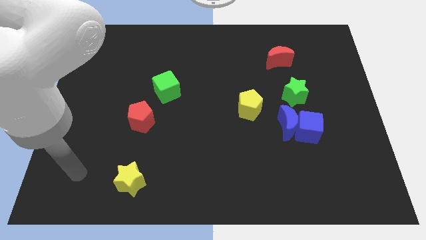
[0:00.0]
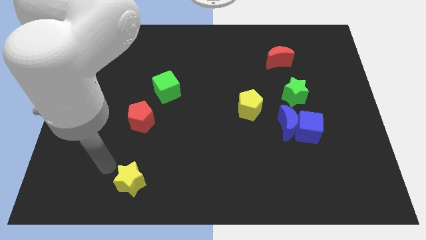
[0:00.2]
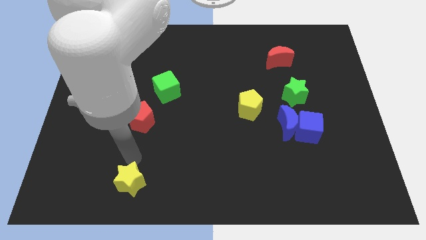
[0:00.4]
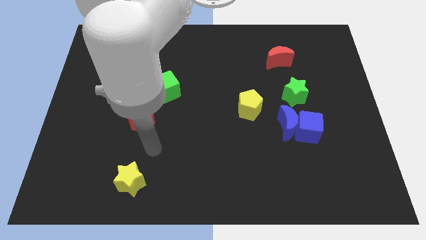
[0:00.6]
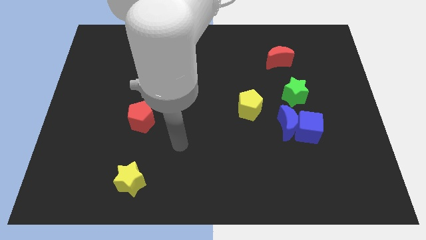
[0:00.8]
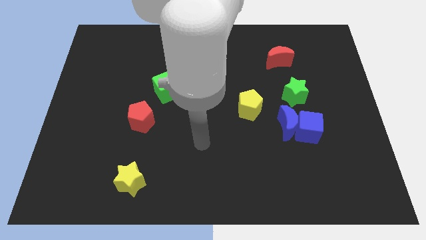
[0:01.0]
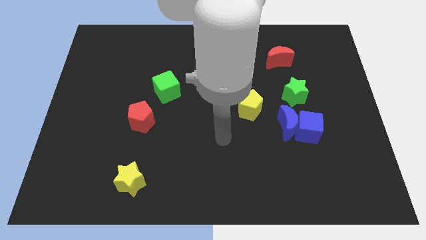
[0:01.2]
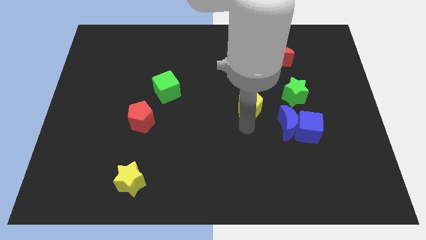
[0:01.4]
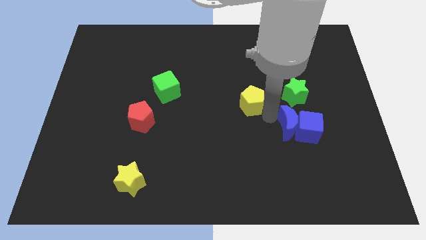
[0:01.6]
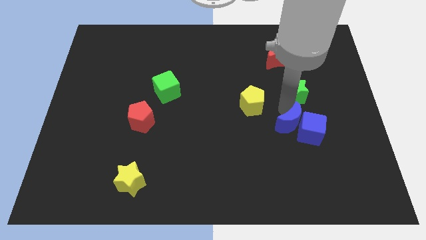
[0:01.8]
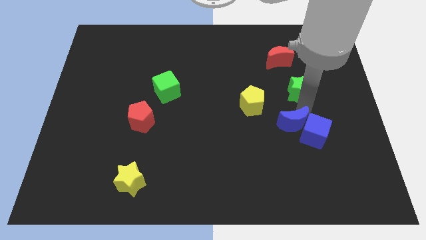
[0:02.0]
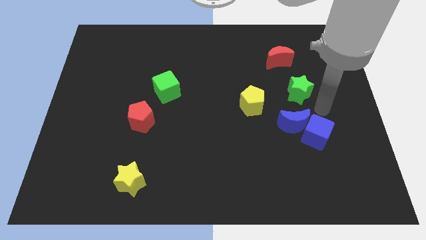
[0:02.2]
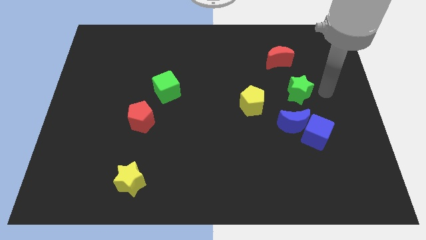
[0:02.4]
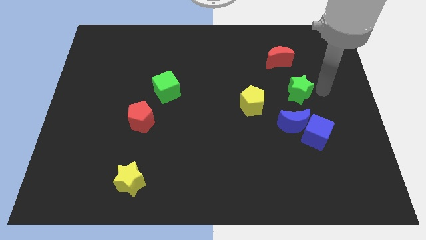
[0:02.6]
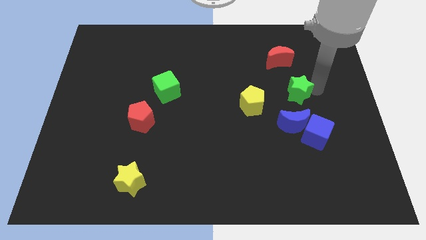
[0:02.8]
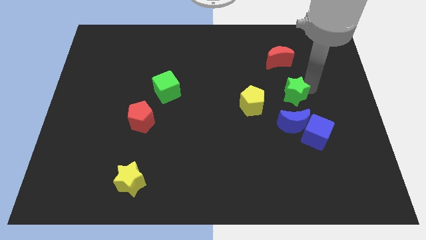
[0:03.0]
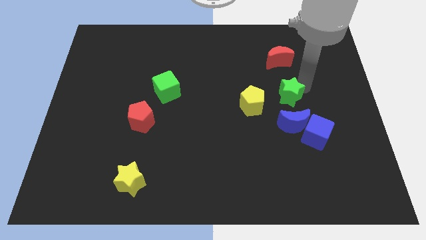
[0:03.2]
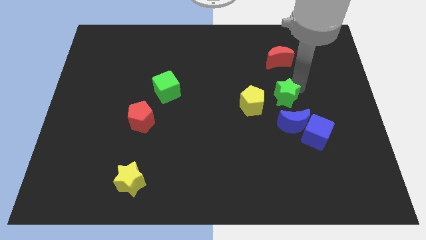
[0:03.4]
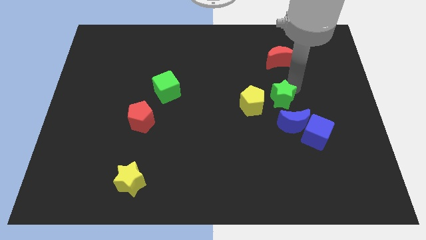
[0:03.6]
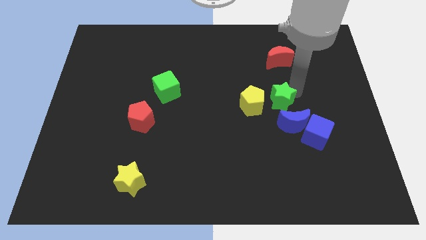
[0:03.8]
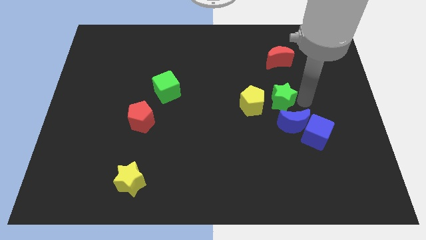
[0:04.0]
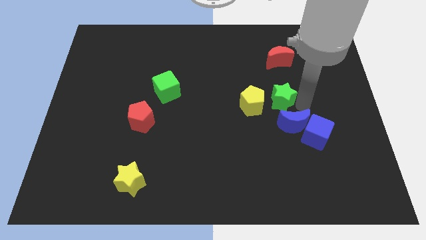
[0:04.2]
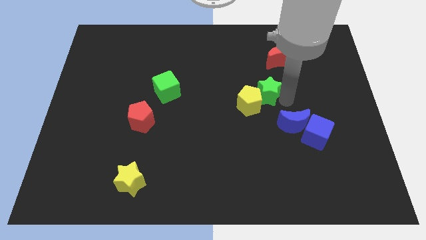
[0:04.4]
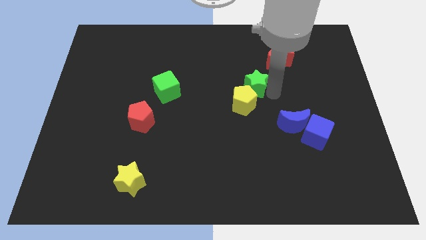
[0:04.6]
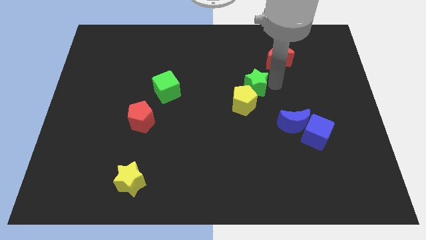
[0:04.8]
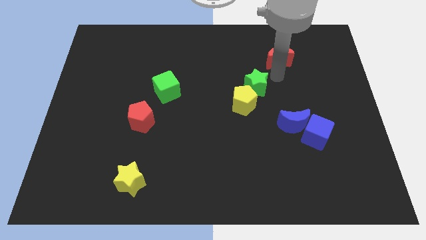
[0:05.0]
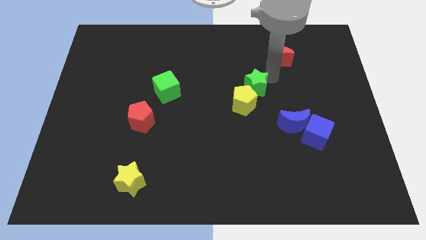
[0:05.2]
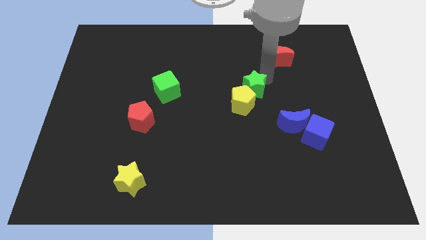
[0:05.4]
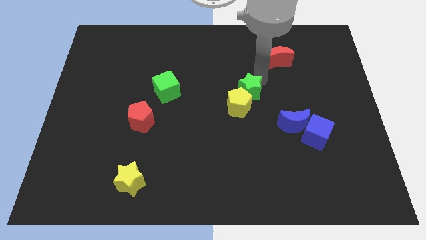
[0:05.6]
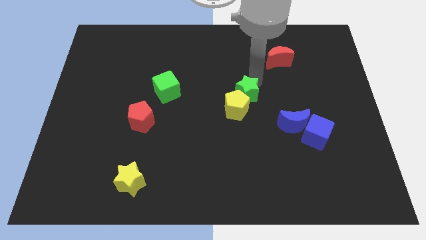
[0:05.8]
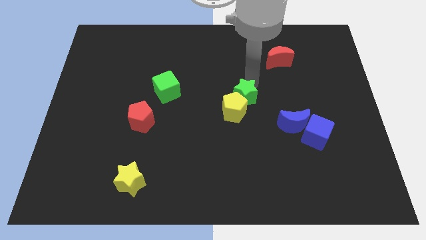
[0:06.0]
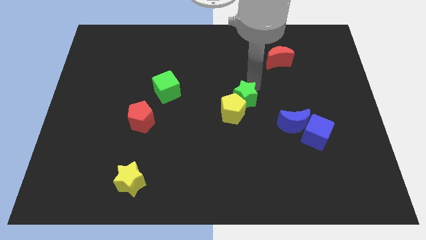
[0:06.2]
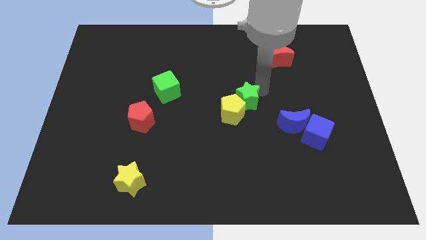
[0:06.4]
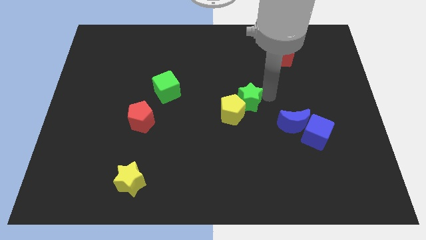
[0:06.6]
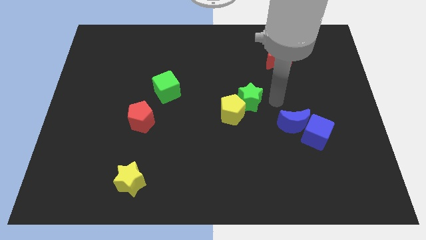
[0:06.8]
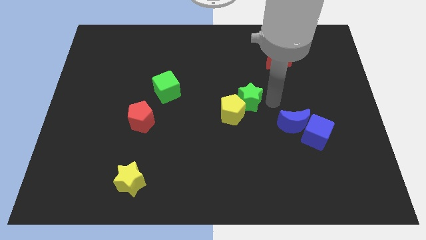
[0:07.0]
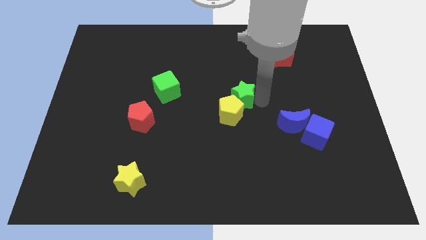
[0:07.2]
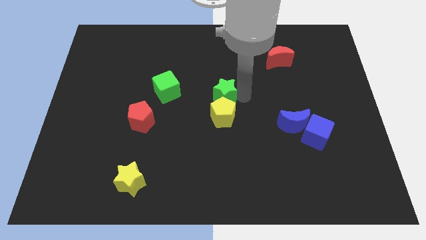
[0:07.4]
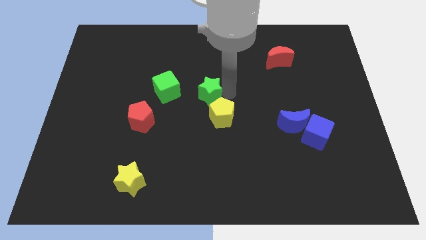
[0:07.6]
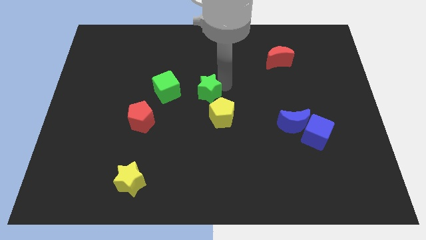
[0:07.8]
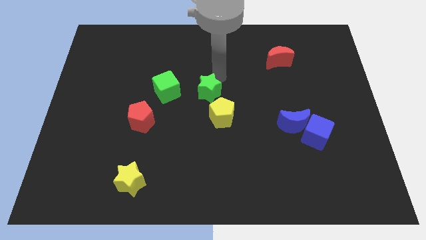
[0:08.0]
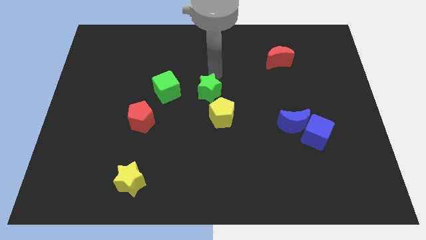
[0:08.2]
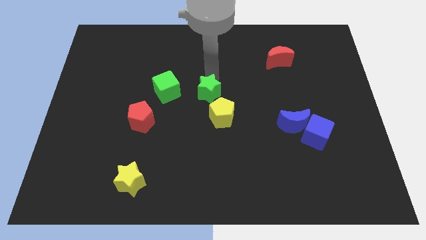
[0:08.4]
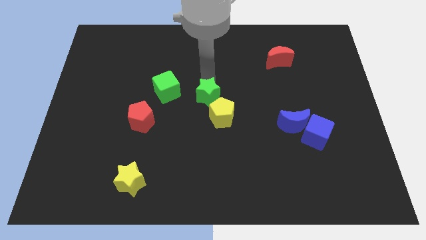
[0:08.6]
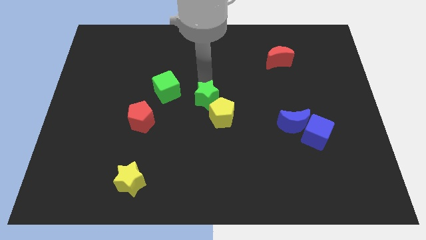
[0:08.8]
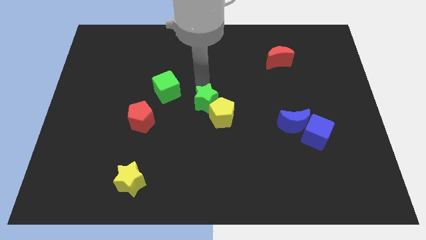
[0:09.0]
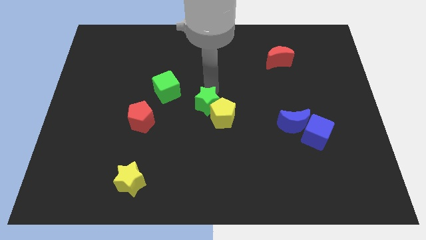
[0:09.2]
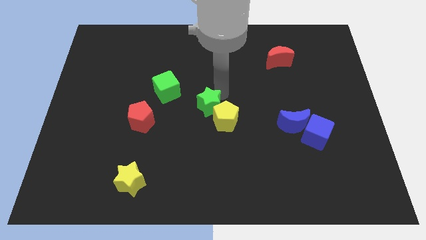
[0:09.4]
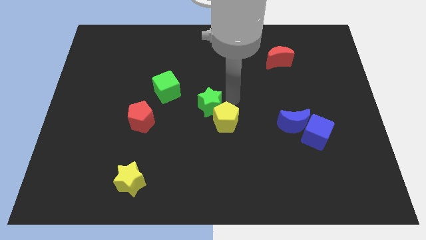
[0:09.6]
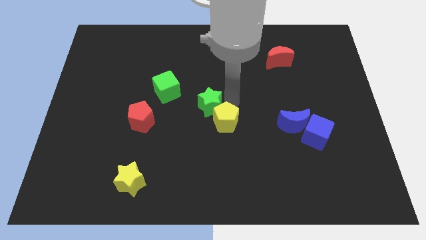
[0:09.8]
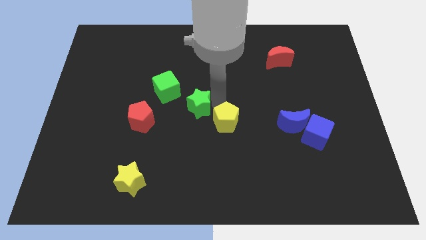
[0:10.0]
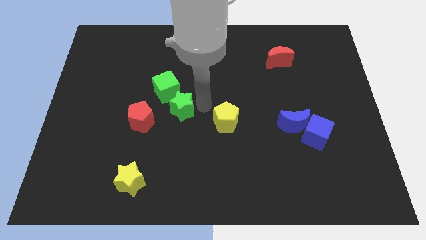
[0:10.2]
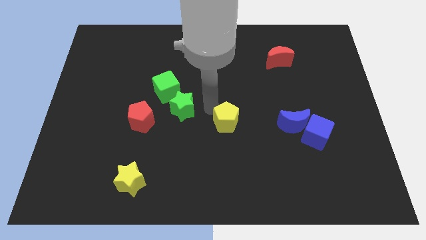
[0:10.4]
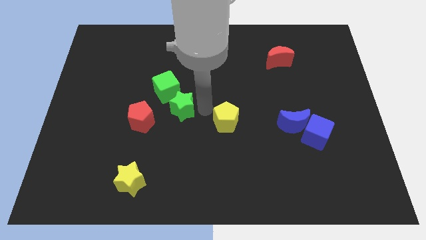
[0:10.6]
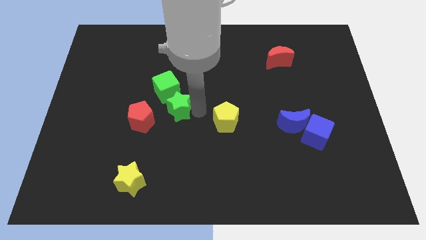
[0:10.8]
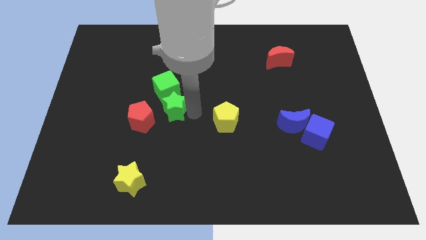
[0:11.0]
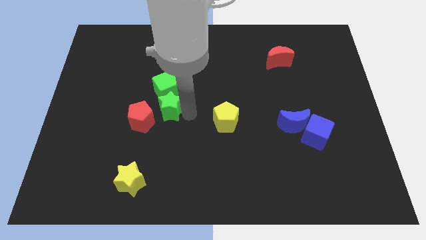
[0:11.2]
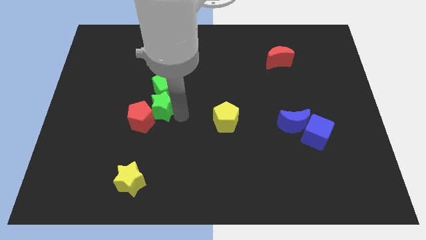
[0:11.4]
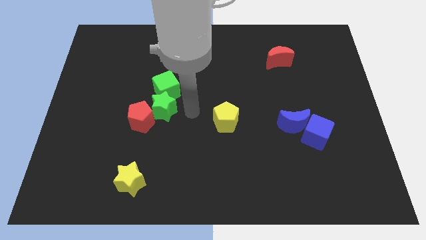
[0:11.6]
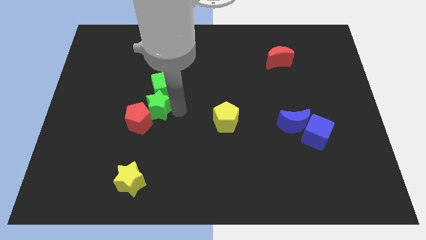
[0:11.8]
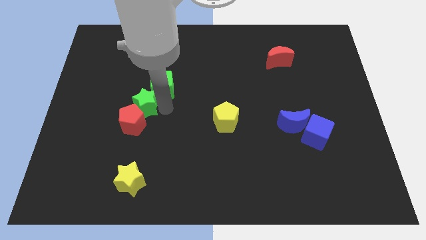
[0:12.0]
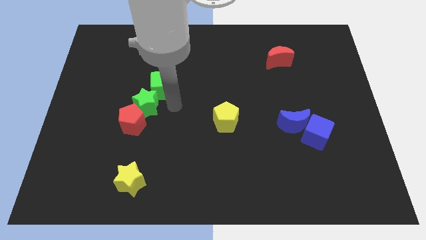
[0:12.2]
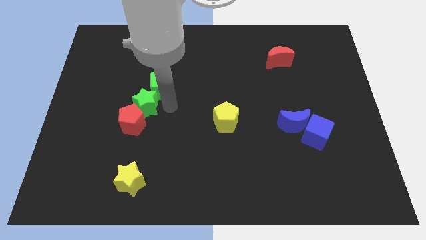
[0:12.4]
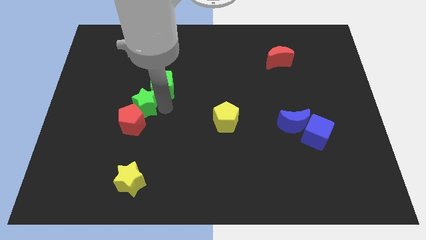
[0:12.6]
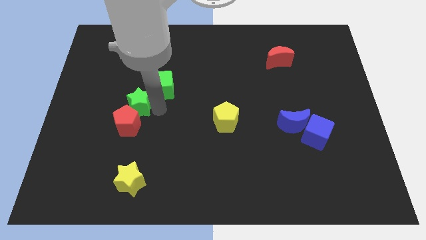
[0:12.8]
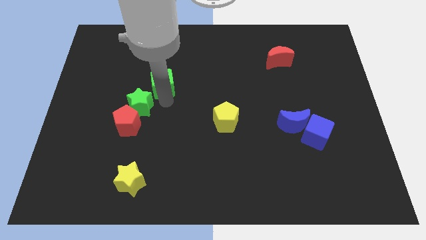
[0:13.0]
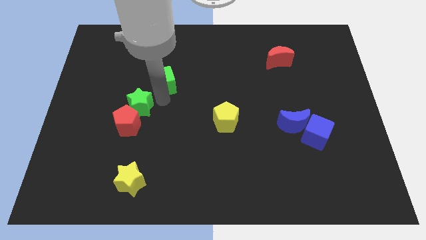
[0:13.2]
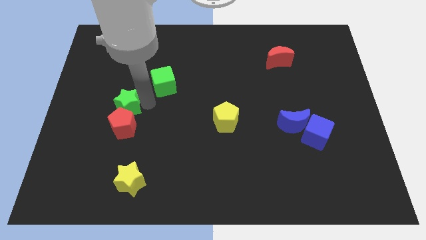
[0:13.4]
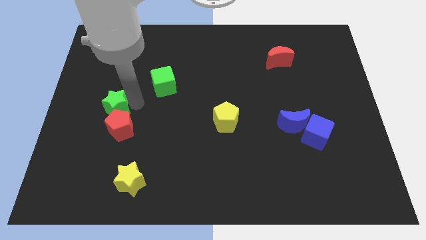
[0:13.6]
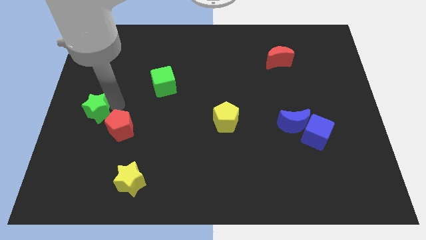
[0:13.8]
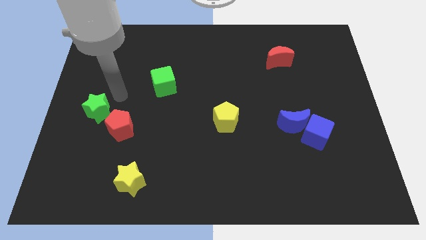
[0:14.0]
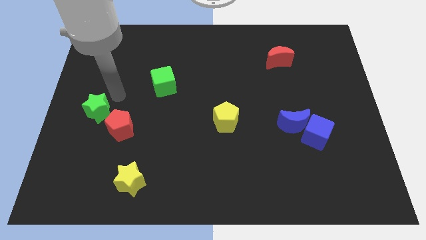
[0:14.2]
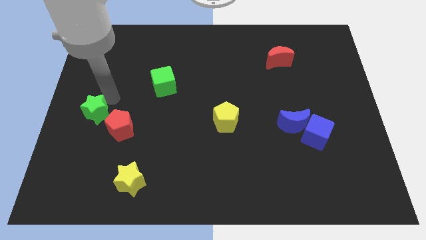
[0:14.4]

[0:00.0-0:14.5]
move the green star to the left side of the red pentagon

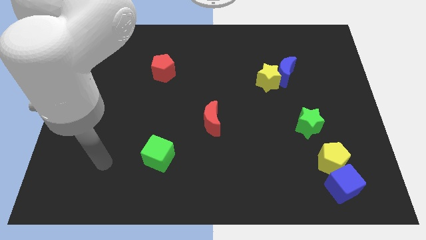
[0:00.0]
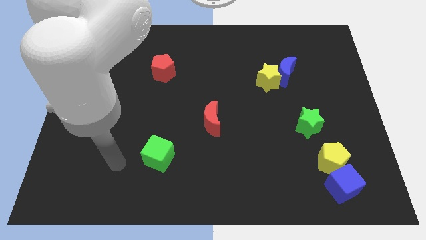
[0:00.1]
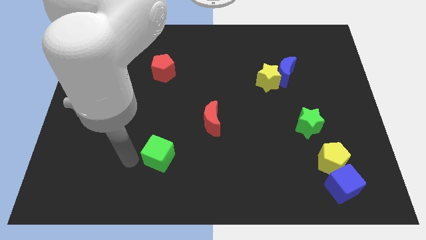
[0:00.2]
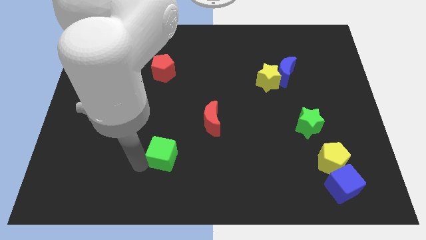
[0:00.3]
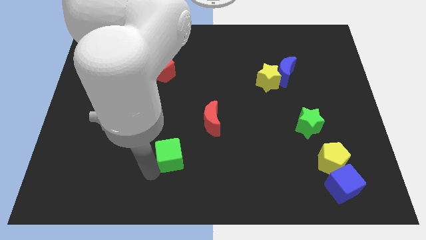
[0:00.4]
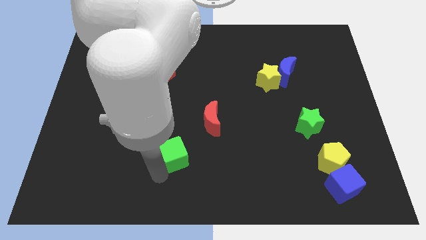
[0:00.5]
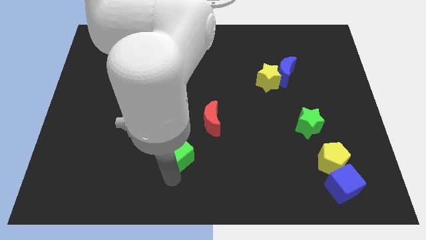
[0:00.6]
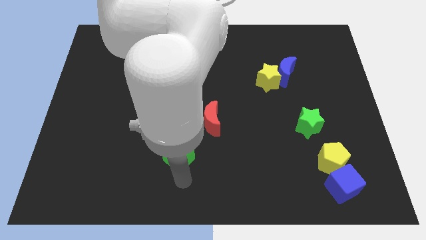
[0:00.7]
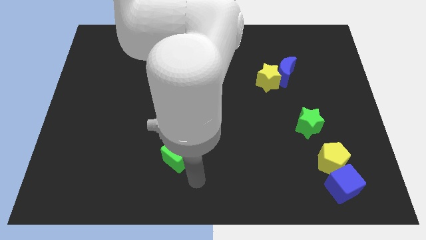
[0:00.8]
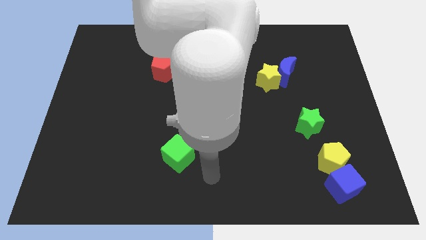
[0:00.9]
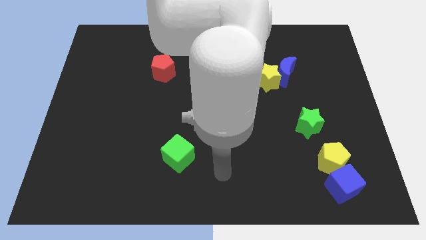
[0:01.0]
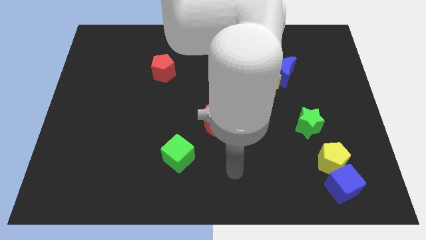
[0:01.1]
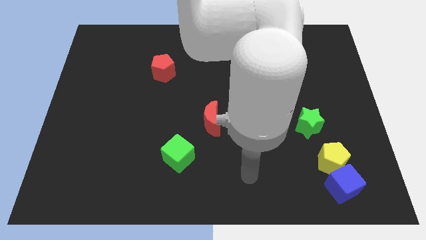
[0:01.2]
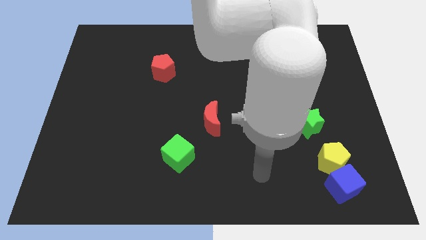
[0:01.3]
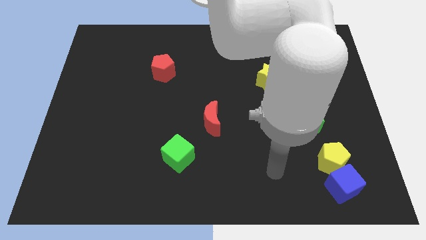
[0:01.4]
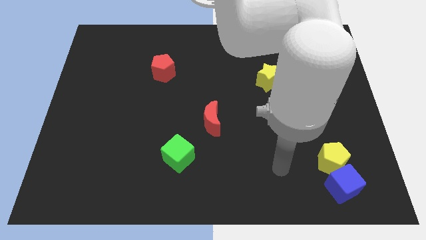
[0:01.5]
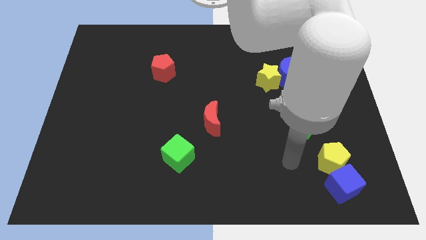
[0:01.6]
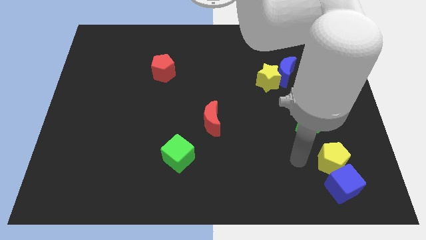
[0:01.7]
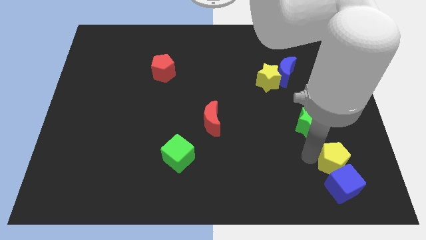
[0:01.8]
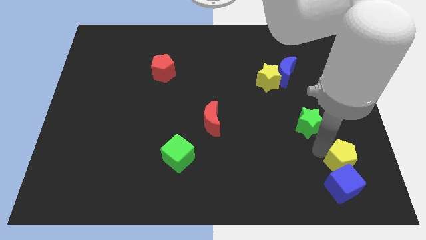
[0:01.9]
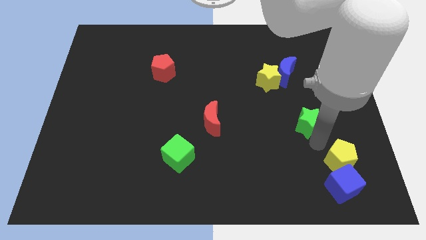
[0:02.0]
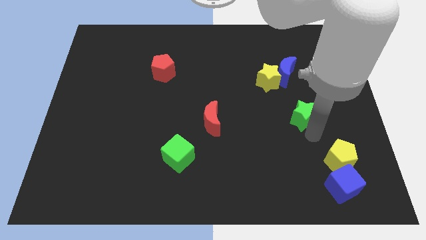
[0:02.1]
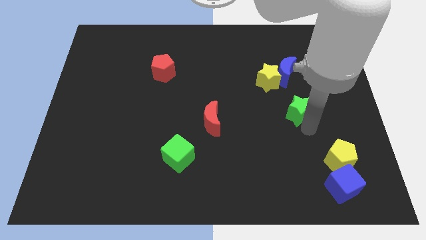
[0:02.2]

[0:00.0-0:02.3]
move the green star to the bottom right of the yellow star
